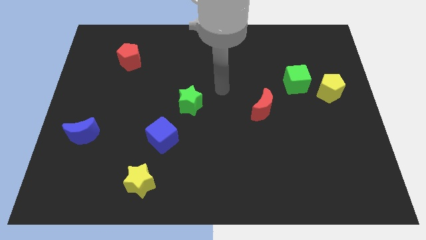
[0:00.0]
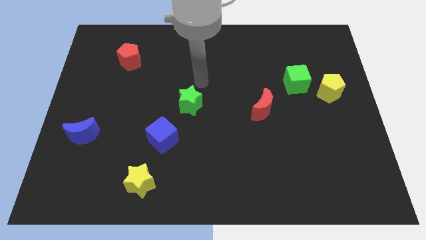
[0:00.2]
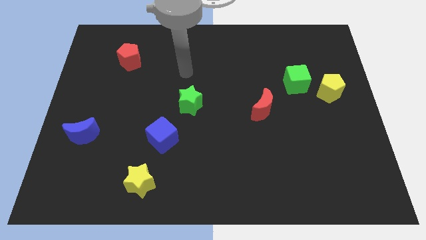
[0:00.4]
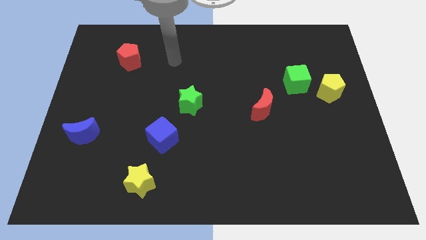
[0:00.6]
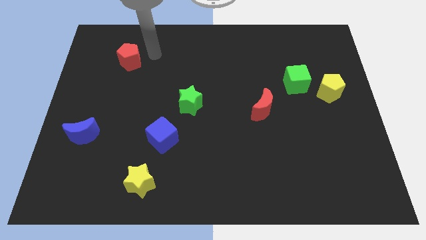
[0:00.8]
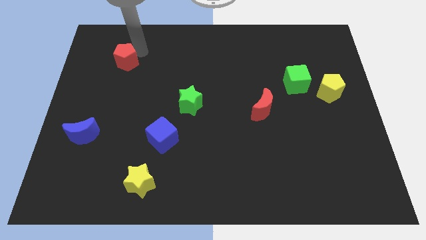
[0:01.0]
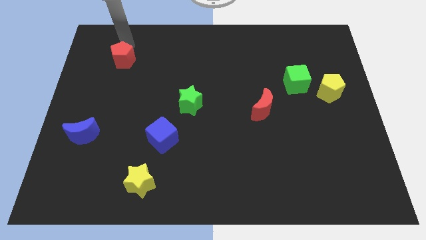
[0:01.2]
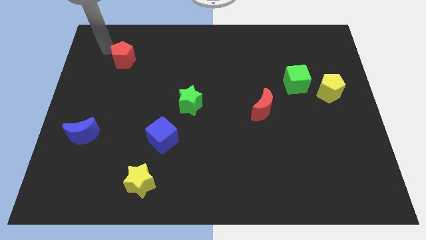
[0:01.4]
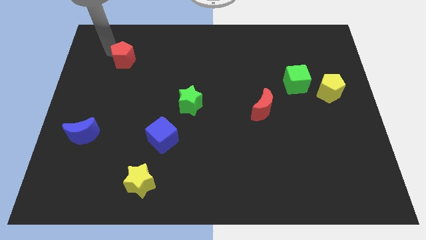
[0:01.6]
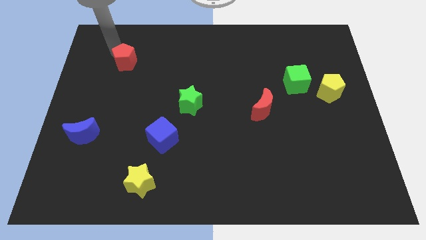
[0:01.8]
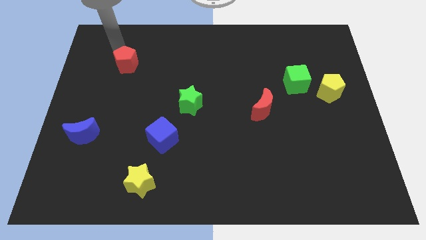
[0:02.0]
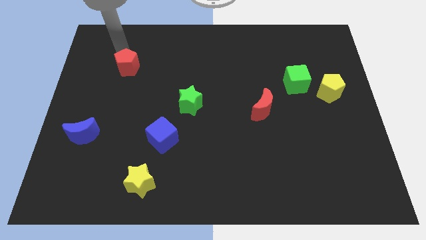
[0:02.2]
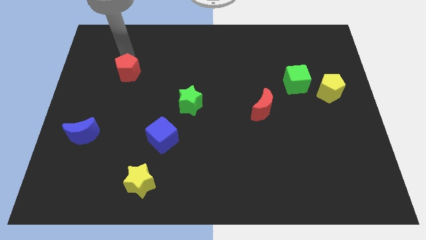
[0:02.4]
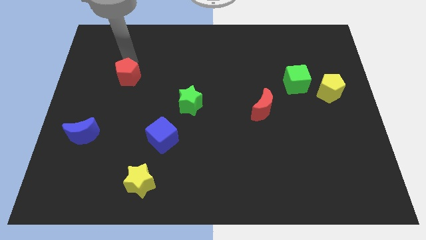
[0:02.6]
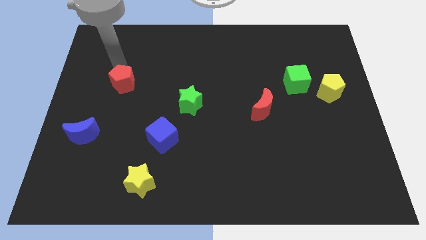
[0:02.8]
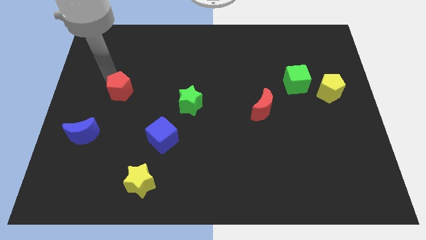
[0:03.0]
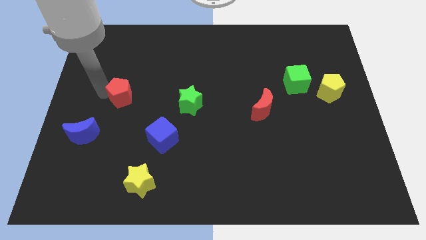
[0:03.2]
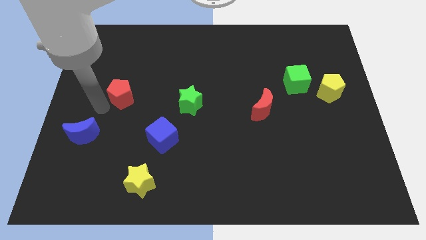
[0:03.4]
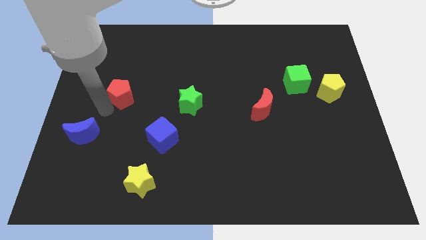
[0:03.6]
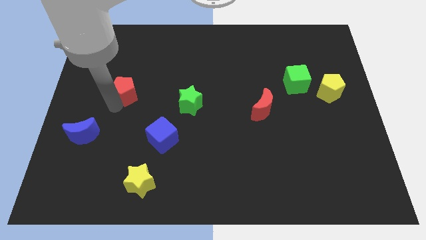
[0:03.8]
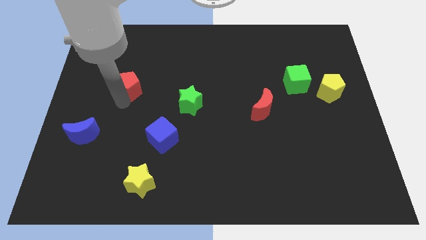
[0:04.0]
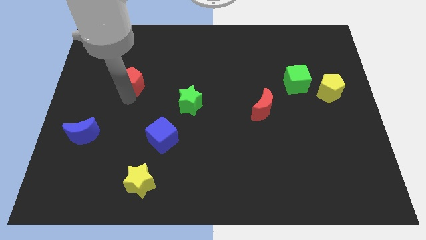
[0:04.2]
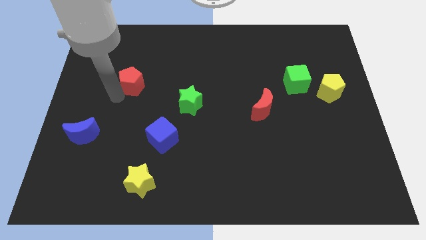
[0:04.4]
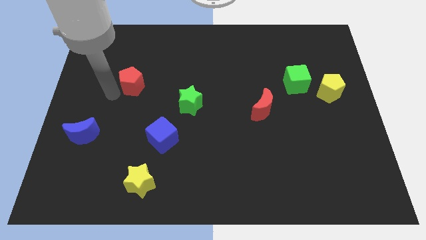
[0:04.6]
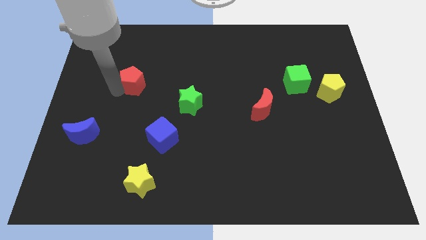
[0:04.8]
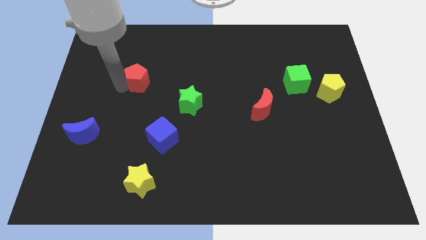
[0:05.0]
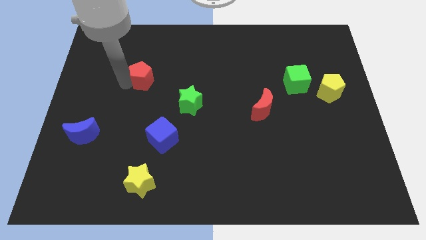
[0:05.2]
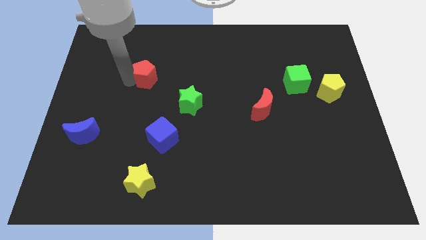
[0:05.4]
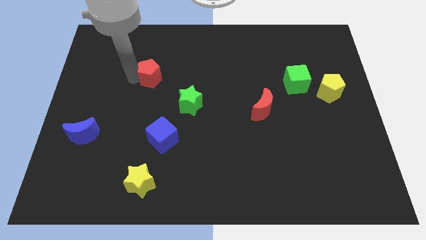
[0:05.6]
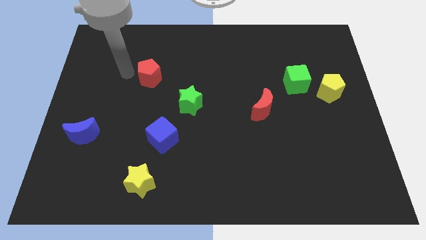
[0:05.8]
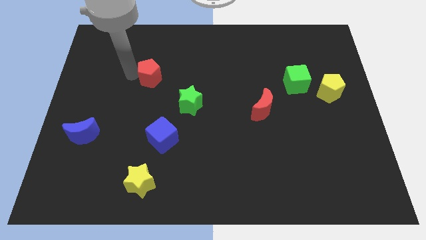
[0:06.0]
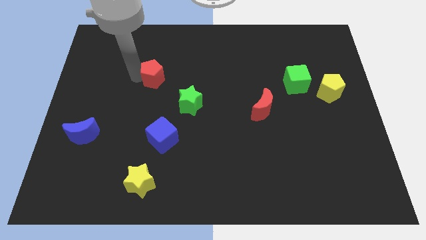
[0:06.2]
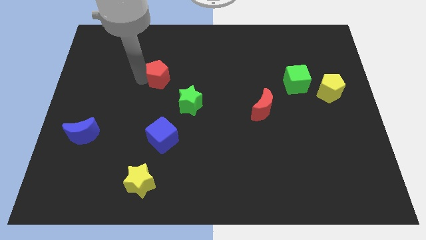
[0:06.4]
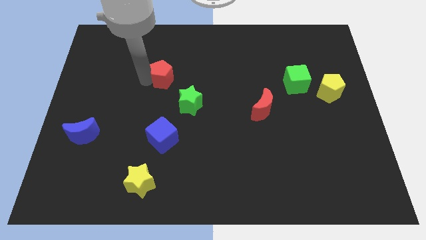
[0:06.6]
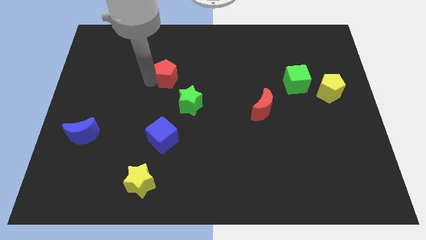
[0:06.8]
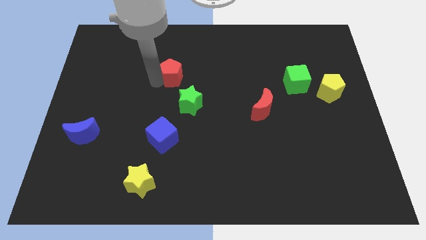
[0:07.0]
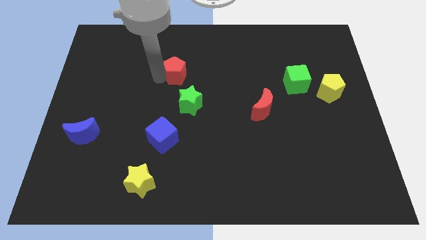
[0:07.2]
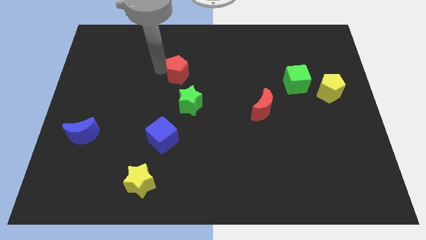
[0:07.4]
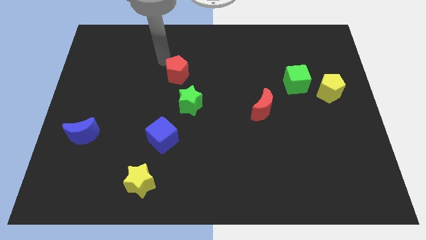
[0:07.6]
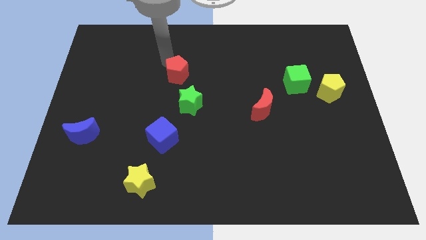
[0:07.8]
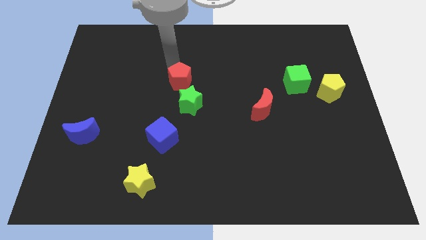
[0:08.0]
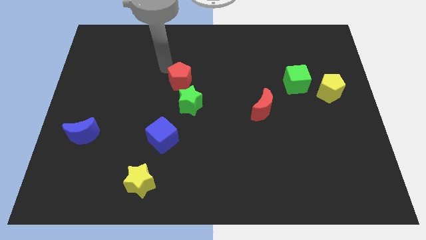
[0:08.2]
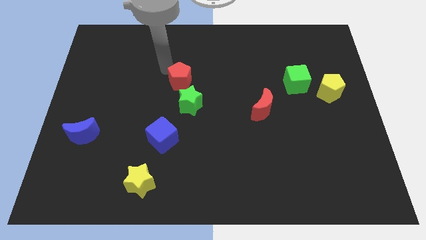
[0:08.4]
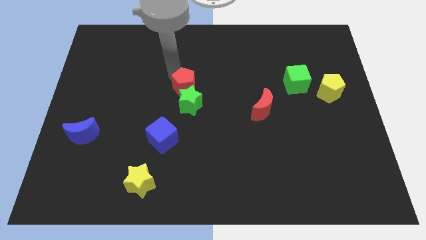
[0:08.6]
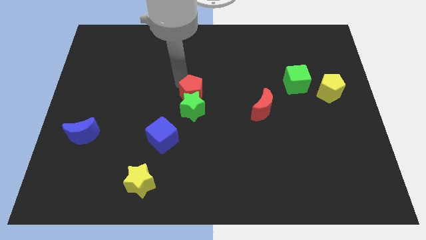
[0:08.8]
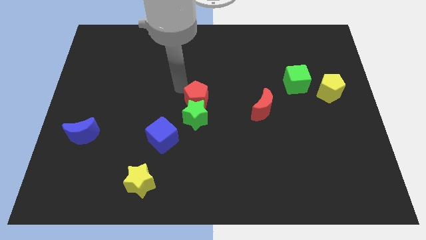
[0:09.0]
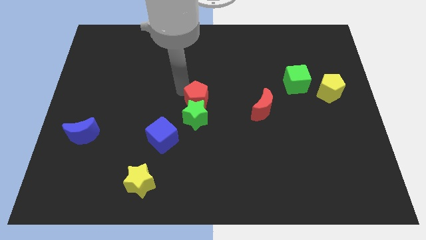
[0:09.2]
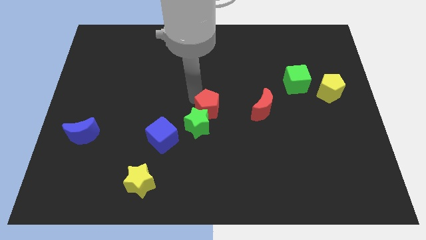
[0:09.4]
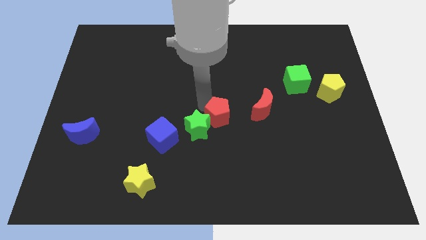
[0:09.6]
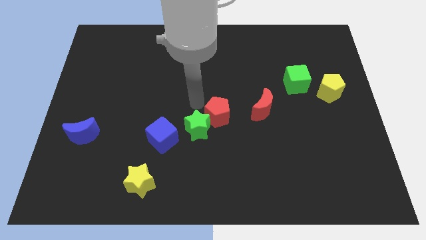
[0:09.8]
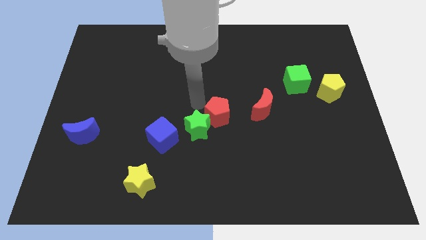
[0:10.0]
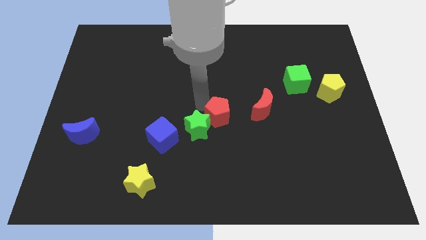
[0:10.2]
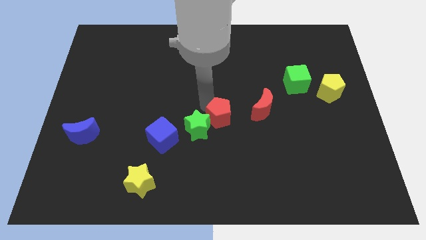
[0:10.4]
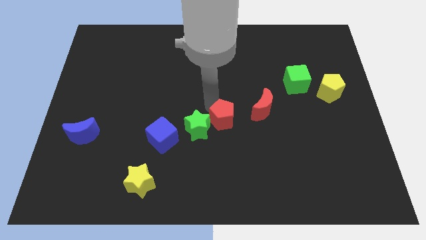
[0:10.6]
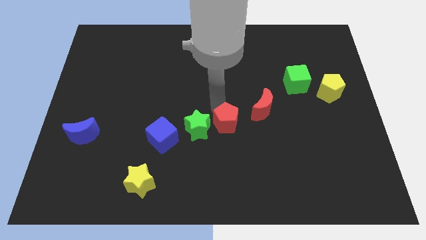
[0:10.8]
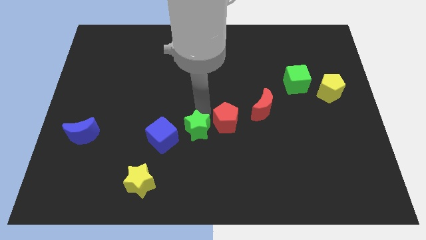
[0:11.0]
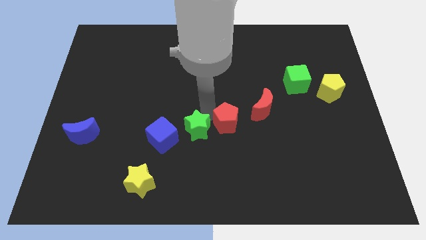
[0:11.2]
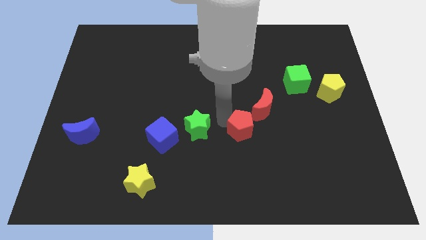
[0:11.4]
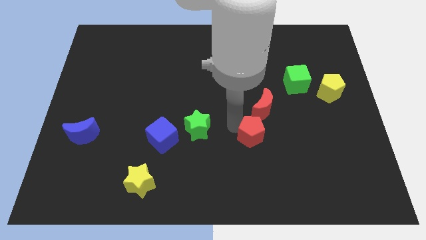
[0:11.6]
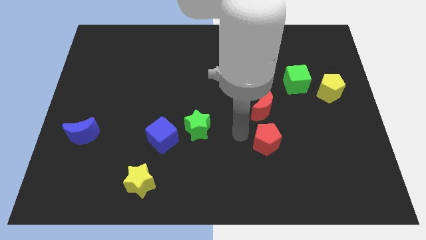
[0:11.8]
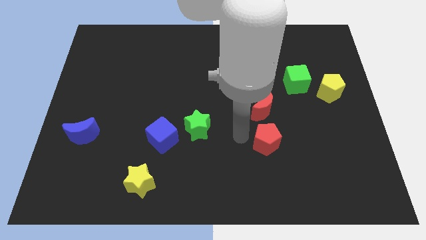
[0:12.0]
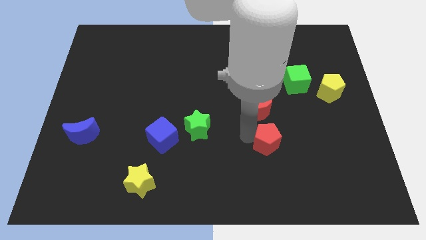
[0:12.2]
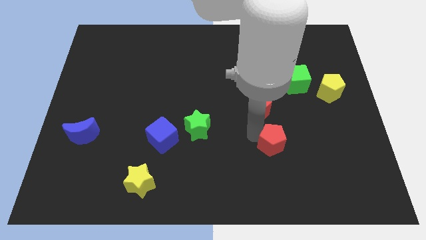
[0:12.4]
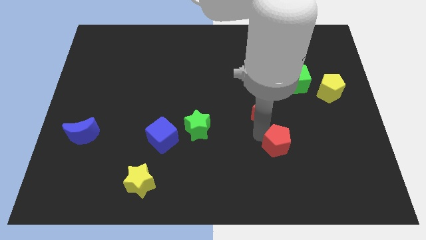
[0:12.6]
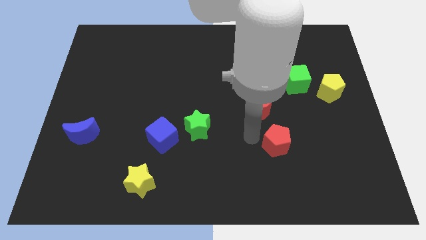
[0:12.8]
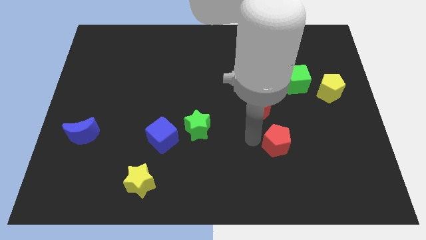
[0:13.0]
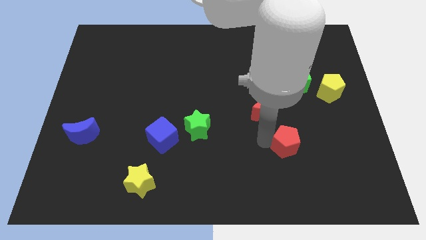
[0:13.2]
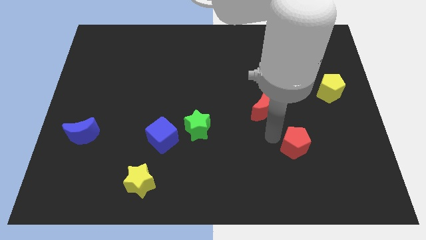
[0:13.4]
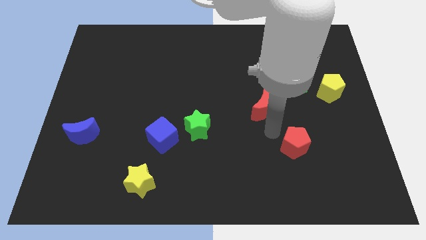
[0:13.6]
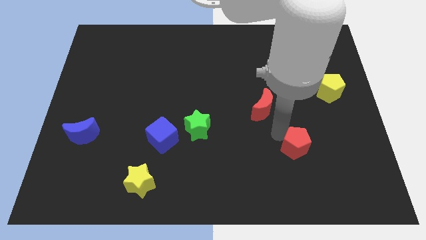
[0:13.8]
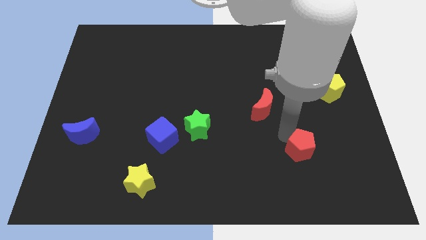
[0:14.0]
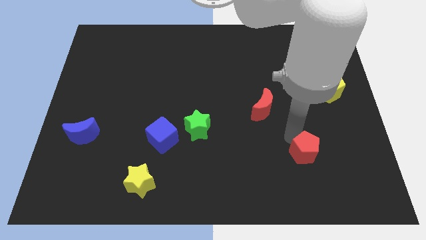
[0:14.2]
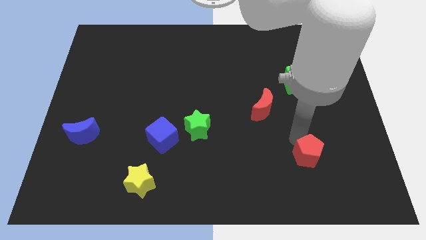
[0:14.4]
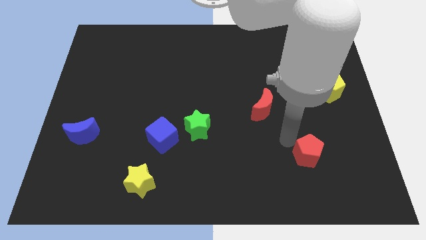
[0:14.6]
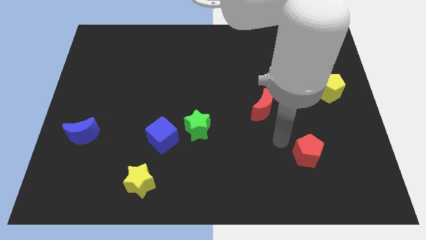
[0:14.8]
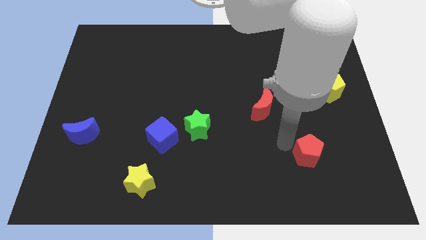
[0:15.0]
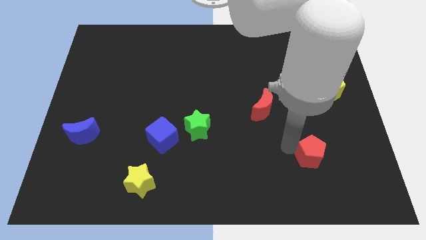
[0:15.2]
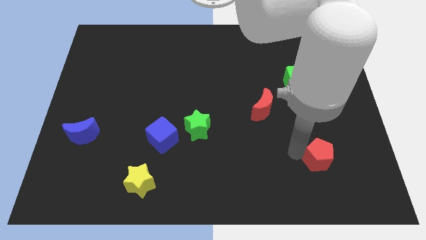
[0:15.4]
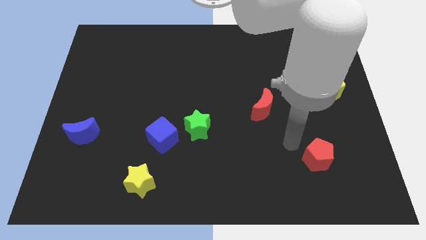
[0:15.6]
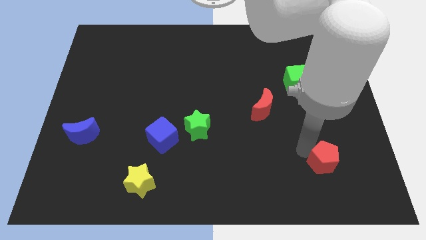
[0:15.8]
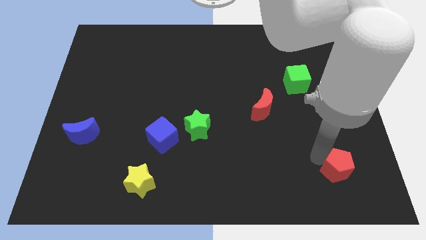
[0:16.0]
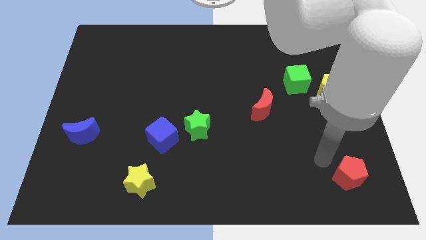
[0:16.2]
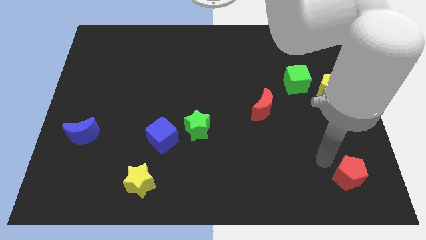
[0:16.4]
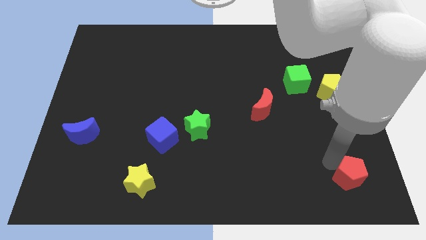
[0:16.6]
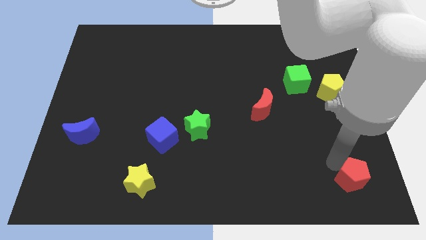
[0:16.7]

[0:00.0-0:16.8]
push the red pentagon to the bottom right corner
